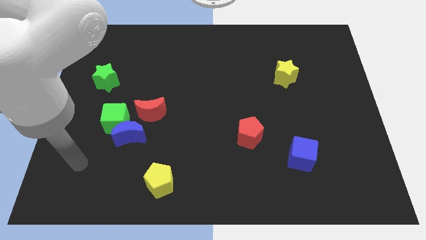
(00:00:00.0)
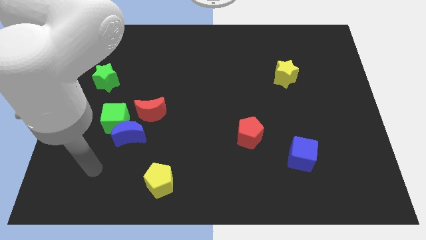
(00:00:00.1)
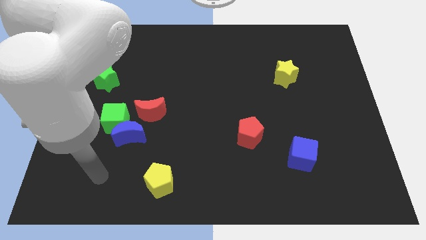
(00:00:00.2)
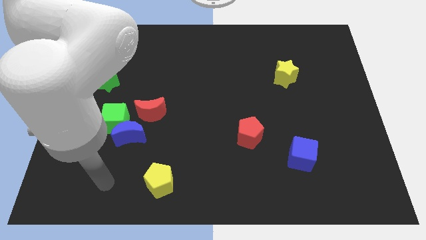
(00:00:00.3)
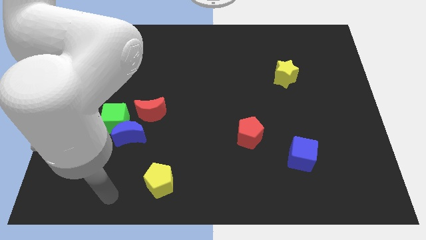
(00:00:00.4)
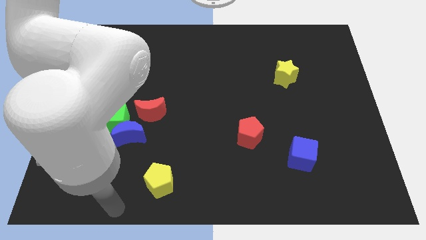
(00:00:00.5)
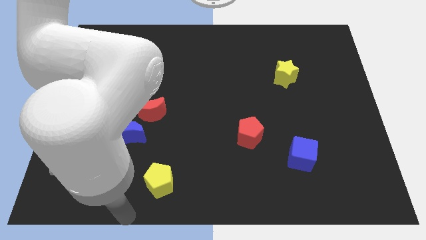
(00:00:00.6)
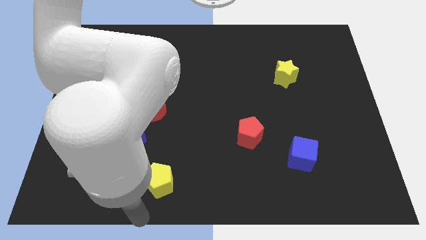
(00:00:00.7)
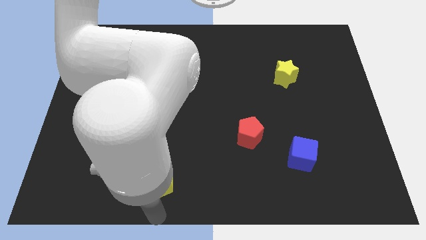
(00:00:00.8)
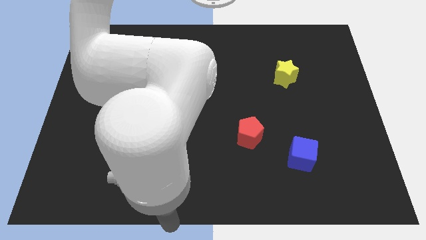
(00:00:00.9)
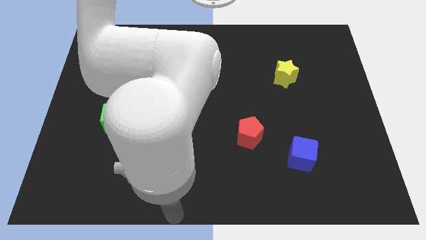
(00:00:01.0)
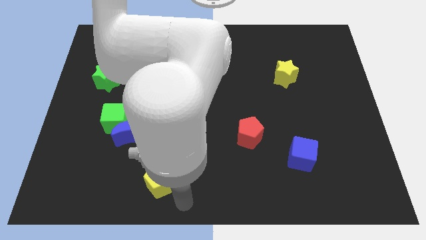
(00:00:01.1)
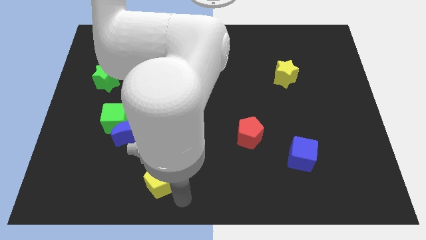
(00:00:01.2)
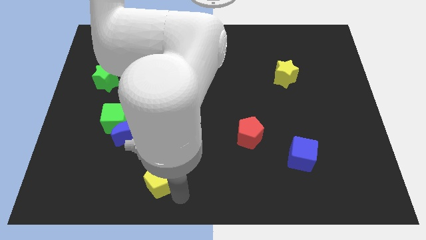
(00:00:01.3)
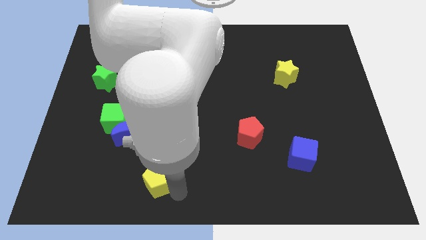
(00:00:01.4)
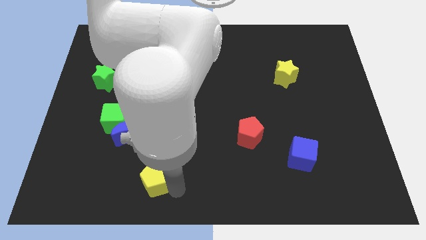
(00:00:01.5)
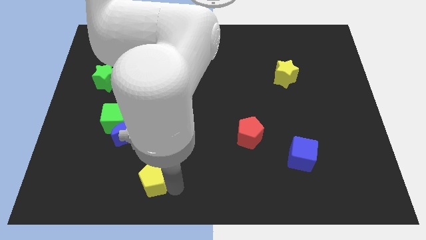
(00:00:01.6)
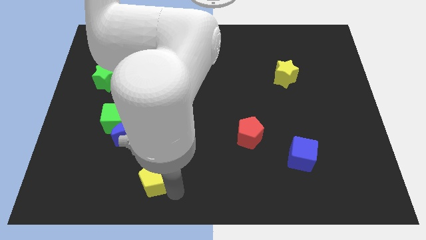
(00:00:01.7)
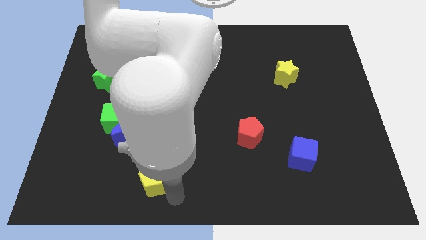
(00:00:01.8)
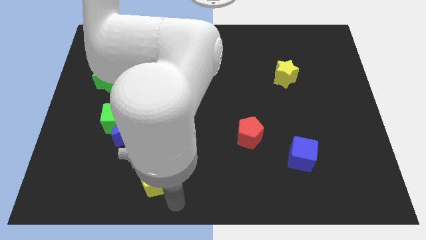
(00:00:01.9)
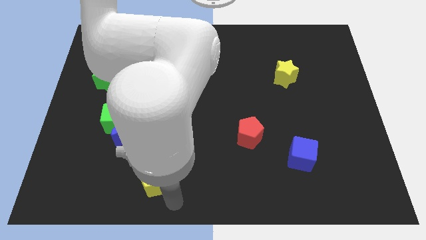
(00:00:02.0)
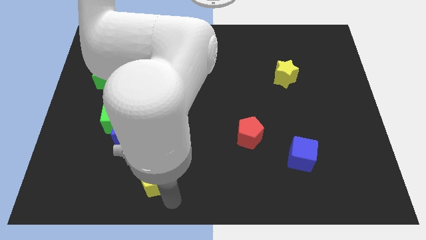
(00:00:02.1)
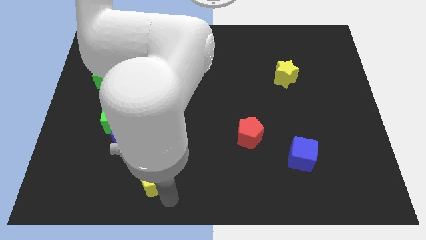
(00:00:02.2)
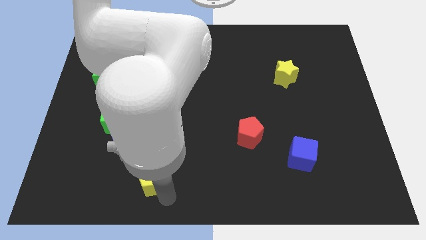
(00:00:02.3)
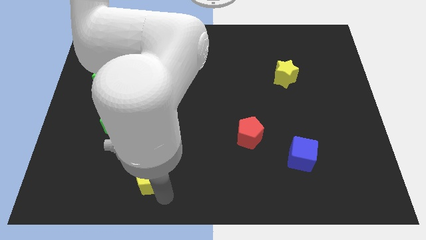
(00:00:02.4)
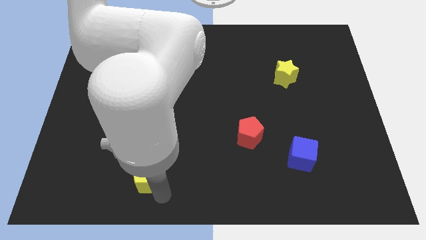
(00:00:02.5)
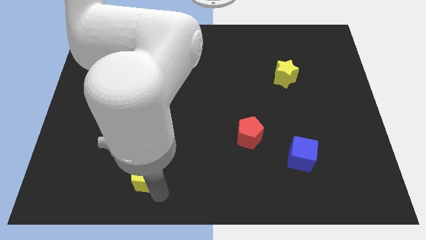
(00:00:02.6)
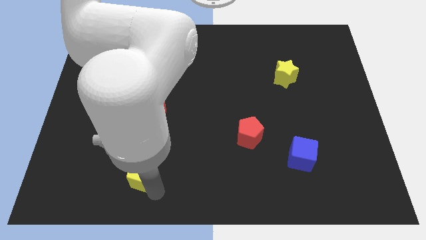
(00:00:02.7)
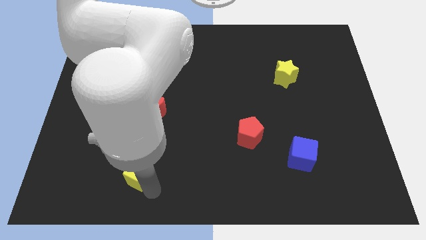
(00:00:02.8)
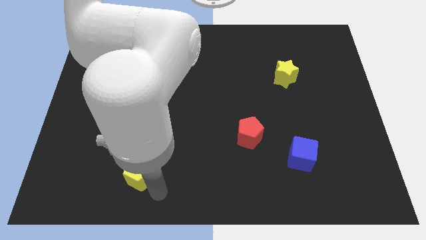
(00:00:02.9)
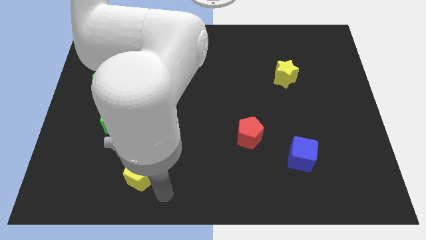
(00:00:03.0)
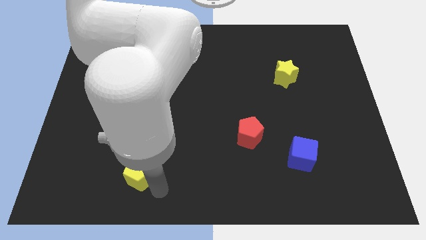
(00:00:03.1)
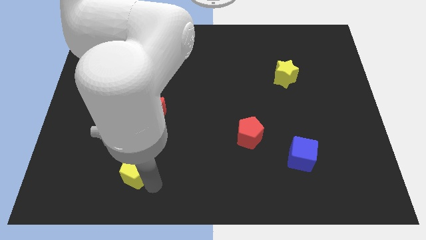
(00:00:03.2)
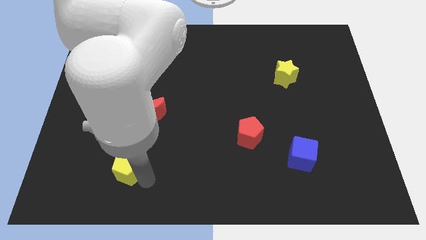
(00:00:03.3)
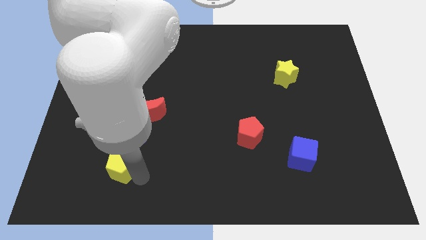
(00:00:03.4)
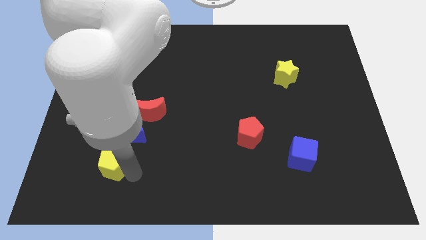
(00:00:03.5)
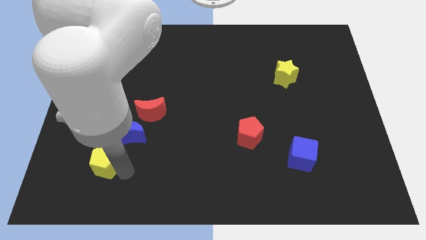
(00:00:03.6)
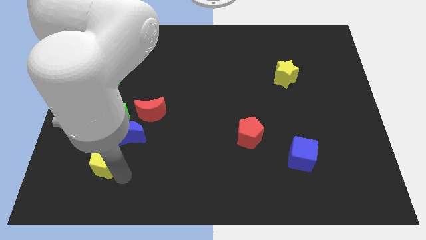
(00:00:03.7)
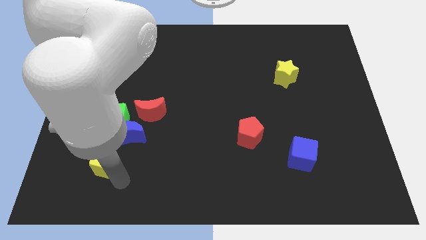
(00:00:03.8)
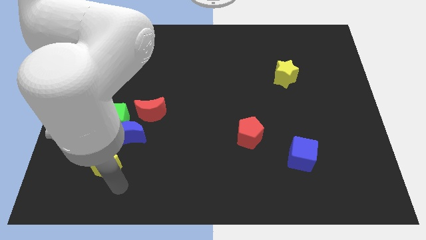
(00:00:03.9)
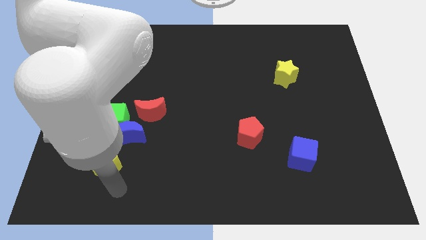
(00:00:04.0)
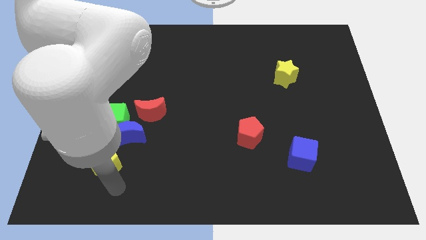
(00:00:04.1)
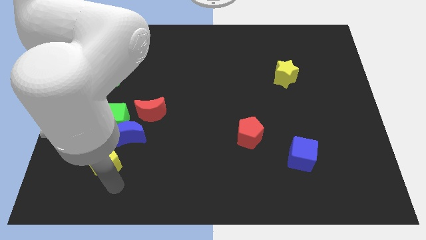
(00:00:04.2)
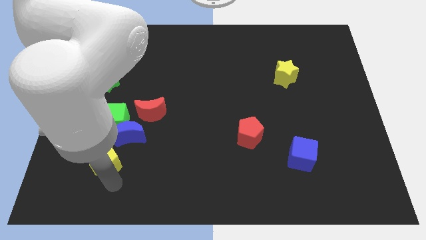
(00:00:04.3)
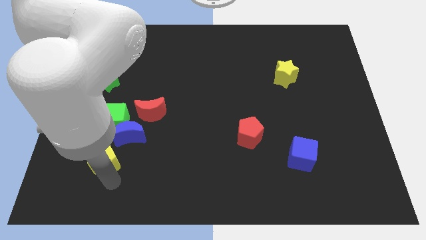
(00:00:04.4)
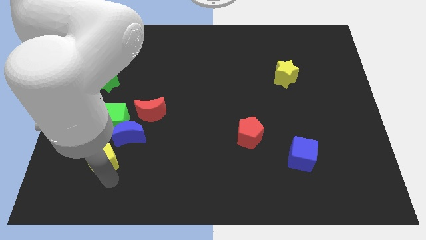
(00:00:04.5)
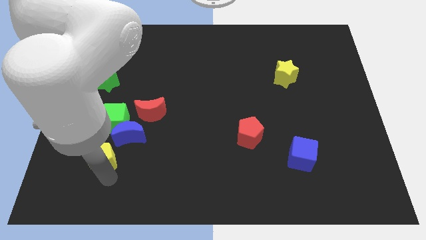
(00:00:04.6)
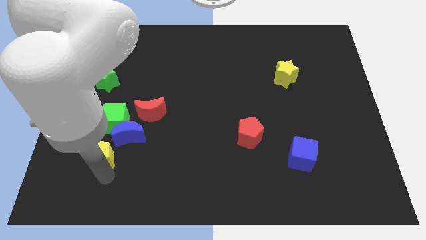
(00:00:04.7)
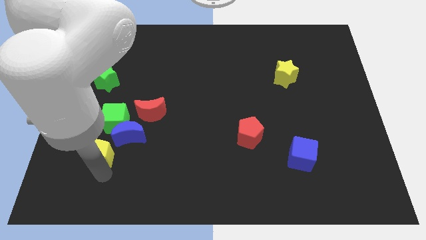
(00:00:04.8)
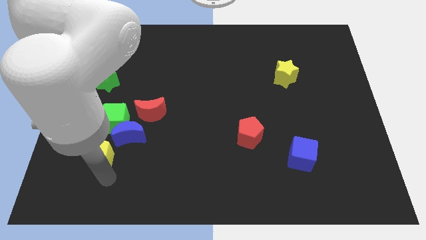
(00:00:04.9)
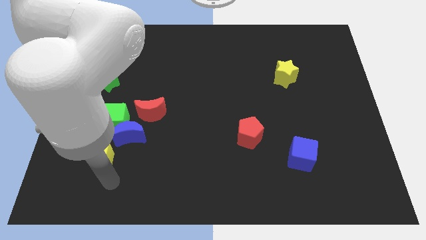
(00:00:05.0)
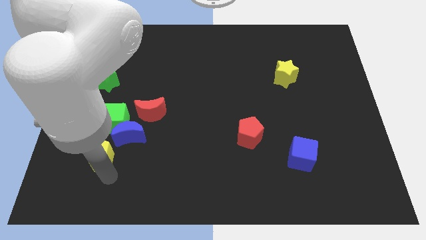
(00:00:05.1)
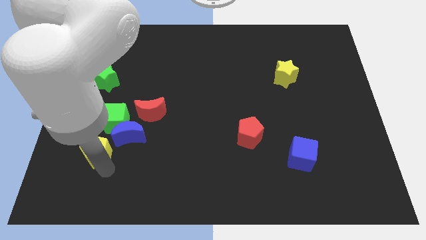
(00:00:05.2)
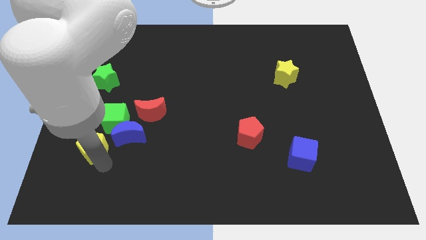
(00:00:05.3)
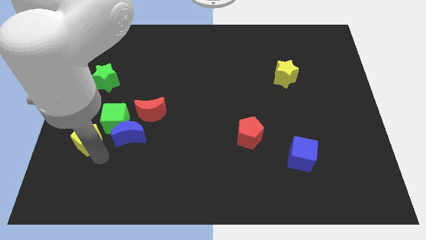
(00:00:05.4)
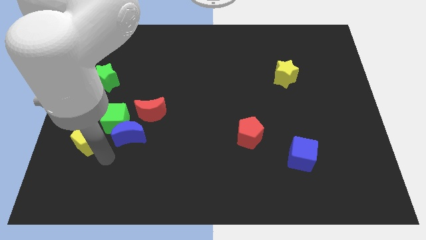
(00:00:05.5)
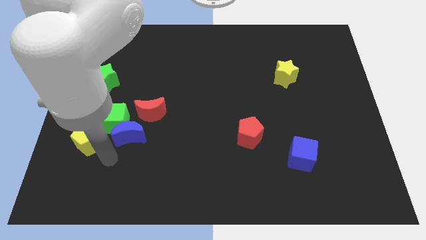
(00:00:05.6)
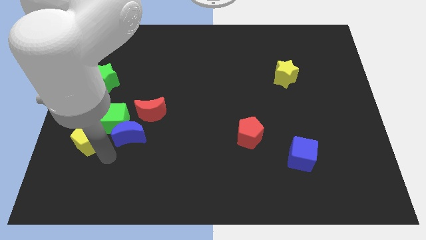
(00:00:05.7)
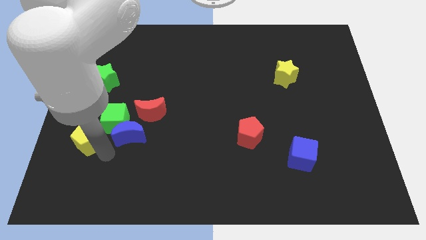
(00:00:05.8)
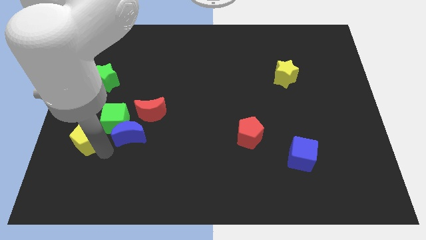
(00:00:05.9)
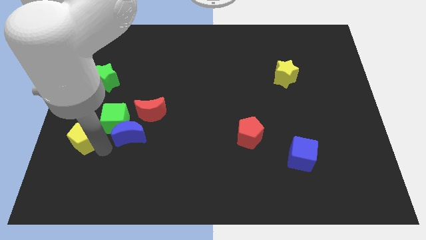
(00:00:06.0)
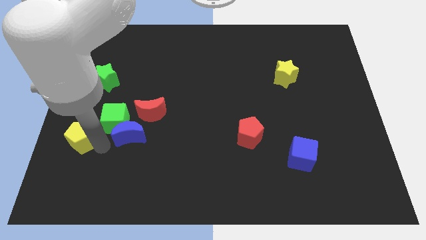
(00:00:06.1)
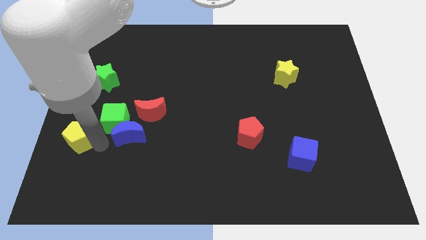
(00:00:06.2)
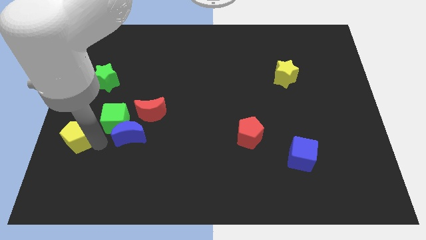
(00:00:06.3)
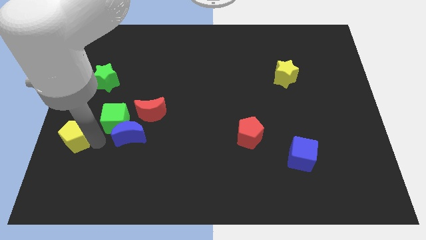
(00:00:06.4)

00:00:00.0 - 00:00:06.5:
put the yellow pentagon to the center left

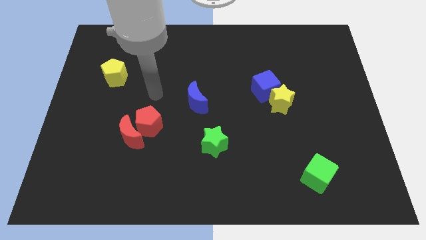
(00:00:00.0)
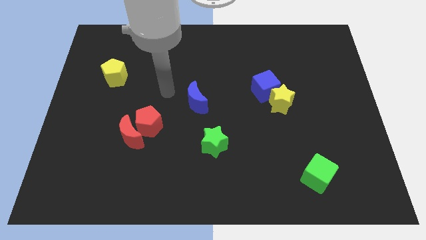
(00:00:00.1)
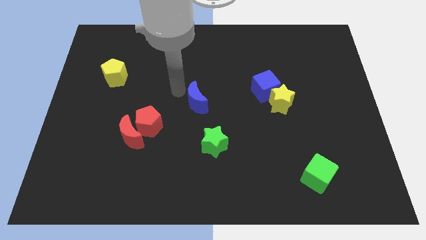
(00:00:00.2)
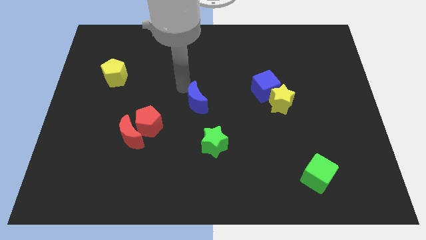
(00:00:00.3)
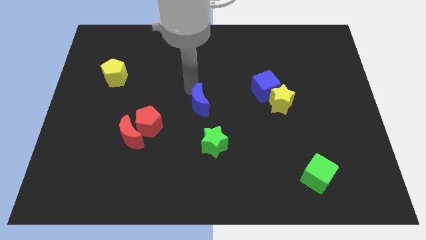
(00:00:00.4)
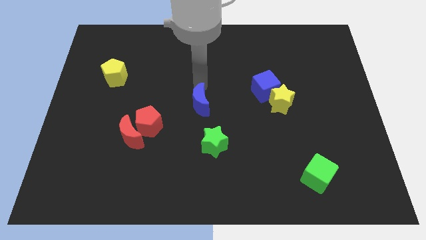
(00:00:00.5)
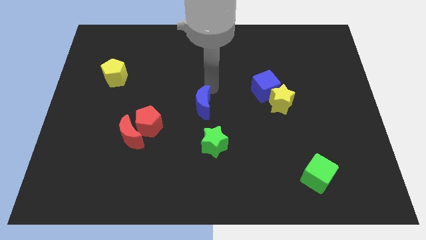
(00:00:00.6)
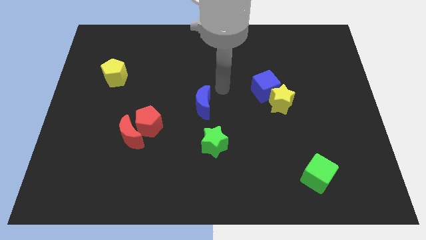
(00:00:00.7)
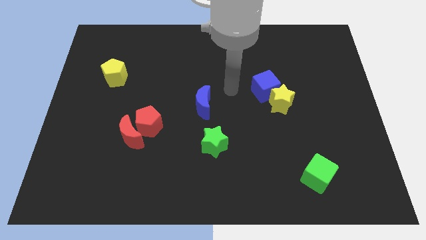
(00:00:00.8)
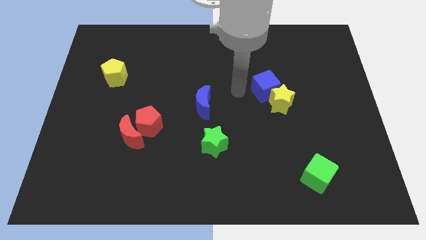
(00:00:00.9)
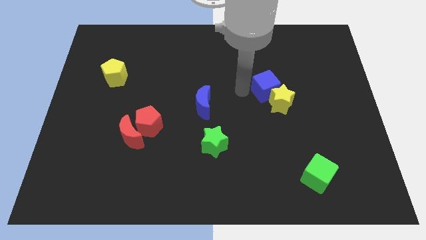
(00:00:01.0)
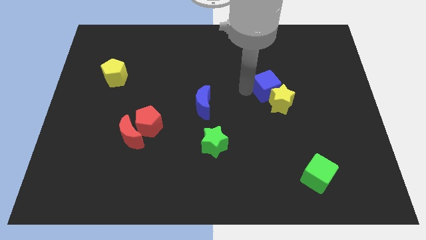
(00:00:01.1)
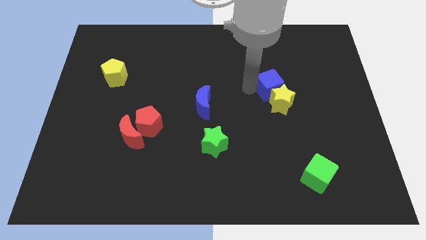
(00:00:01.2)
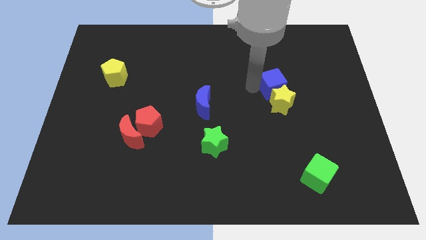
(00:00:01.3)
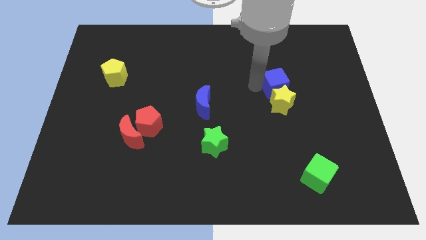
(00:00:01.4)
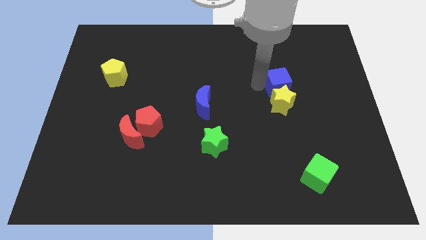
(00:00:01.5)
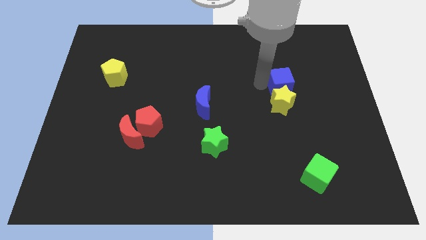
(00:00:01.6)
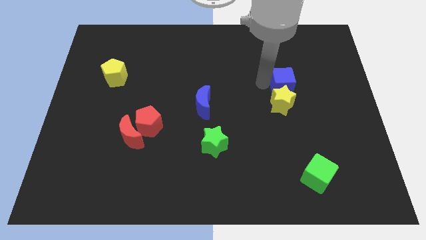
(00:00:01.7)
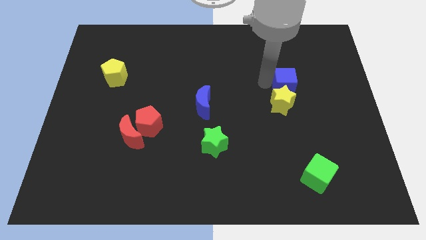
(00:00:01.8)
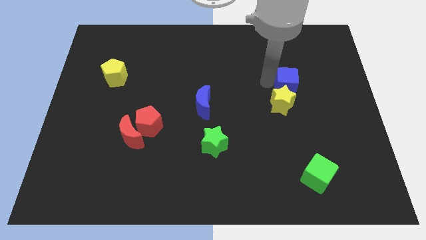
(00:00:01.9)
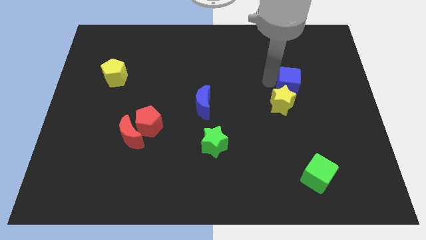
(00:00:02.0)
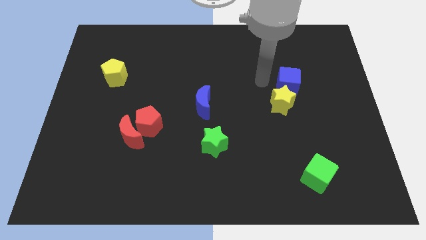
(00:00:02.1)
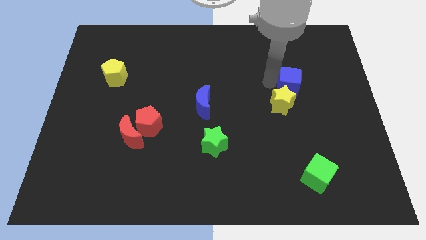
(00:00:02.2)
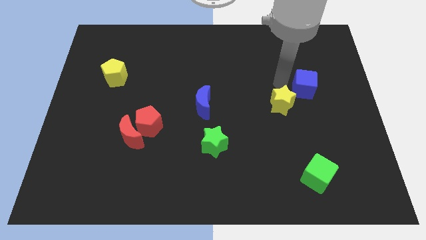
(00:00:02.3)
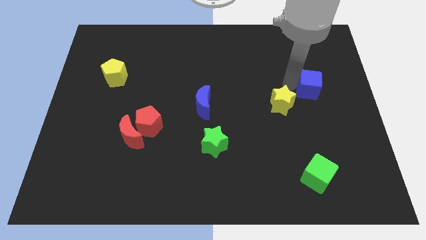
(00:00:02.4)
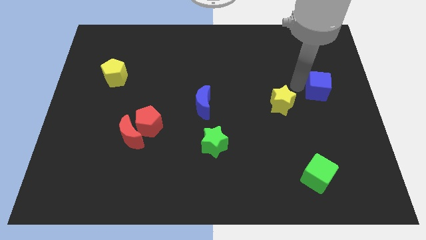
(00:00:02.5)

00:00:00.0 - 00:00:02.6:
put the blue cube to the center right
